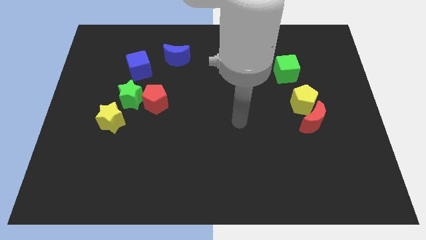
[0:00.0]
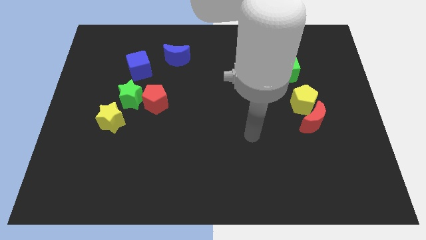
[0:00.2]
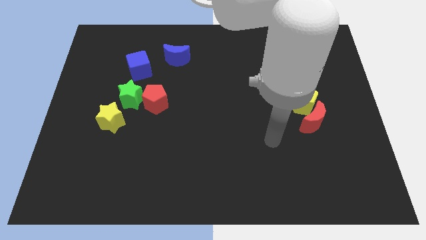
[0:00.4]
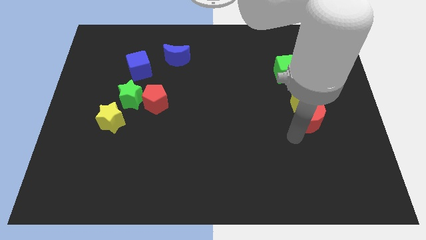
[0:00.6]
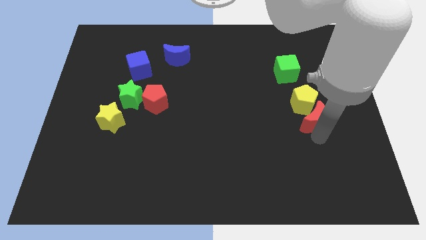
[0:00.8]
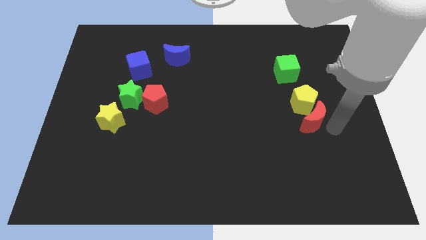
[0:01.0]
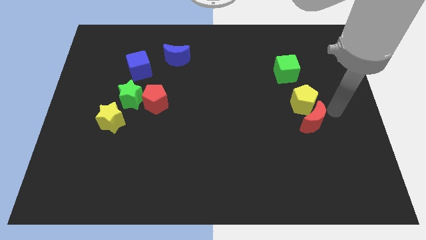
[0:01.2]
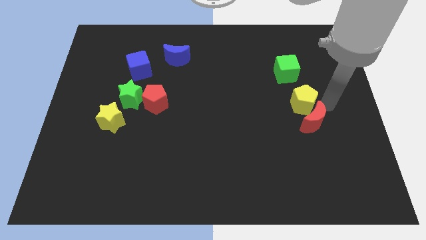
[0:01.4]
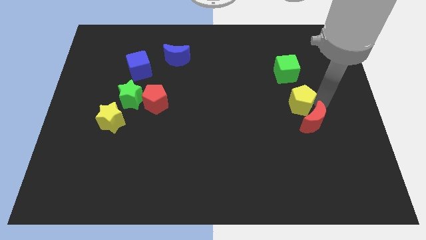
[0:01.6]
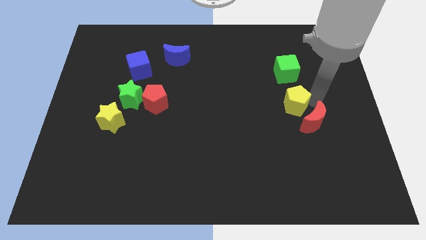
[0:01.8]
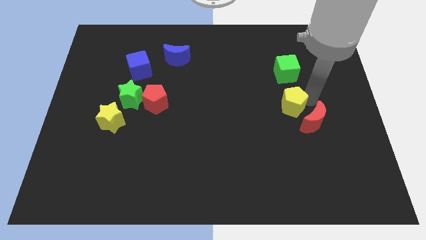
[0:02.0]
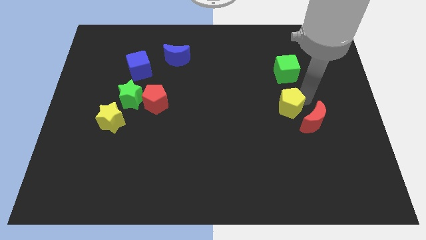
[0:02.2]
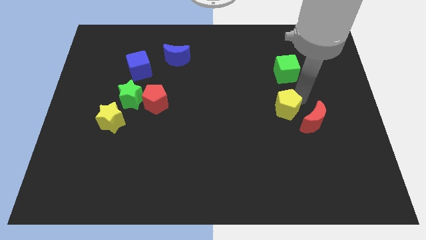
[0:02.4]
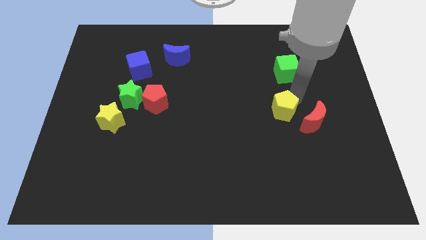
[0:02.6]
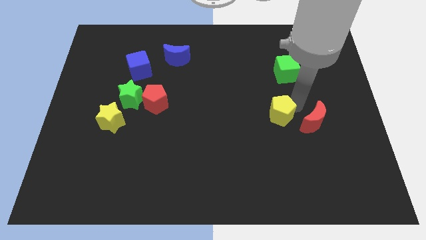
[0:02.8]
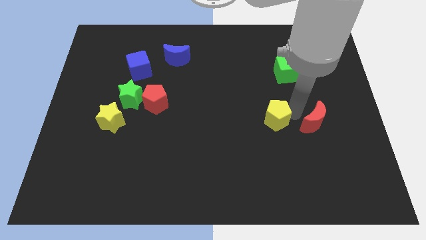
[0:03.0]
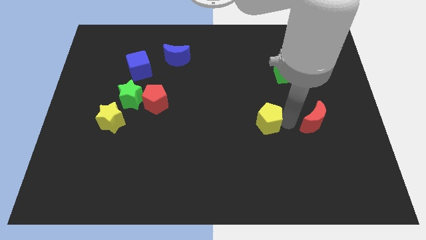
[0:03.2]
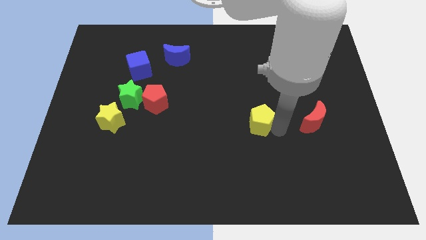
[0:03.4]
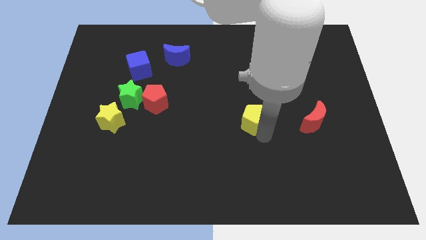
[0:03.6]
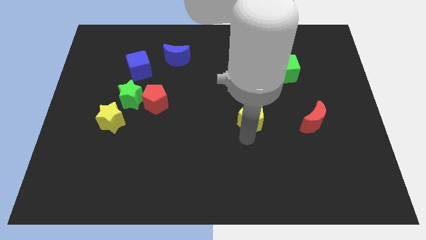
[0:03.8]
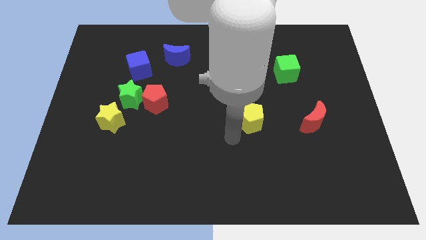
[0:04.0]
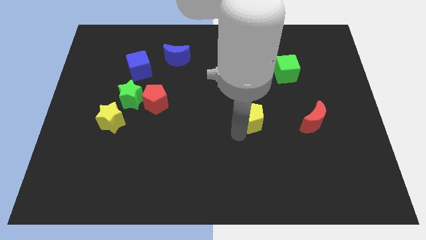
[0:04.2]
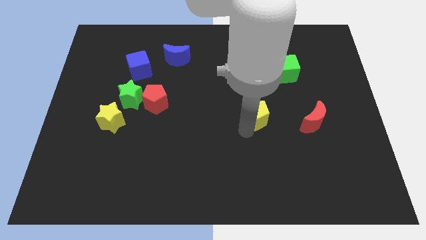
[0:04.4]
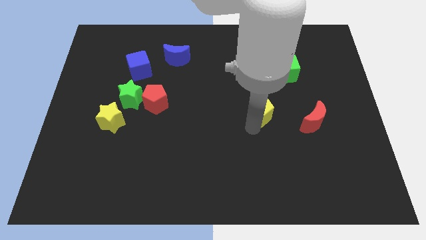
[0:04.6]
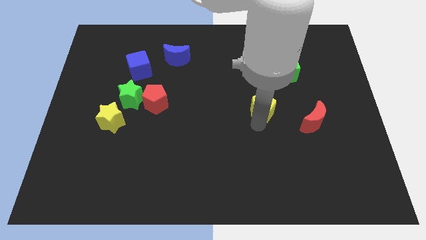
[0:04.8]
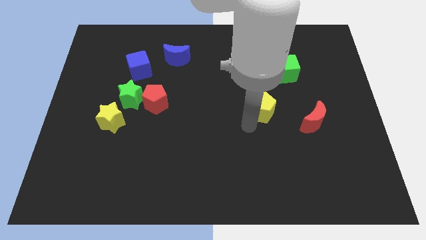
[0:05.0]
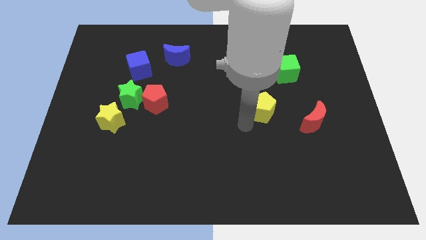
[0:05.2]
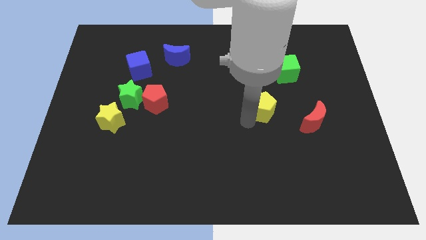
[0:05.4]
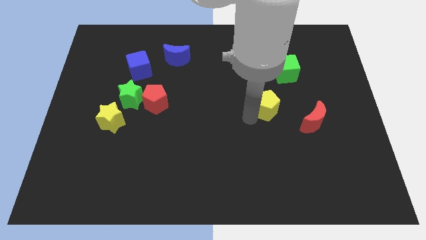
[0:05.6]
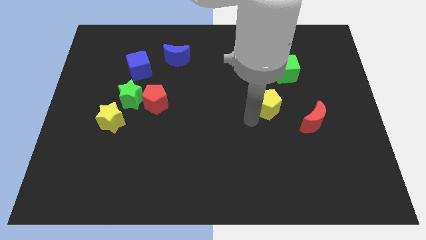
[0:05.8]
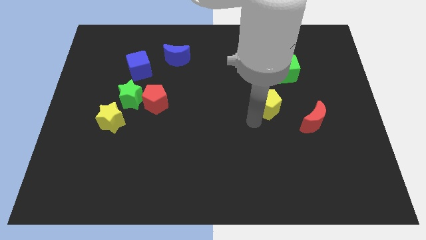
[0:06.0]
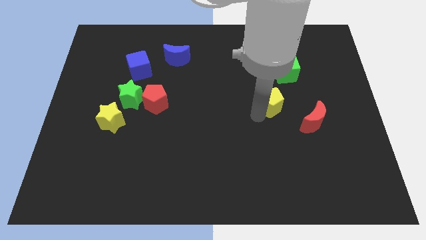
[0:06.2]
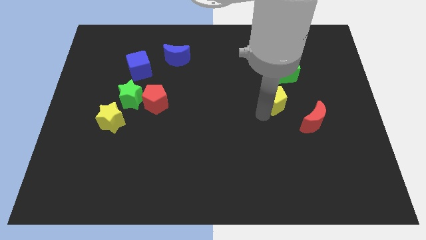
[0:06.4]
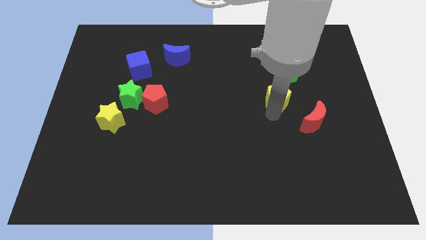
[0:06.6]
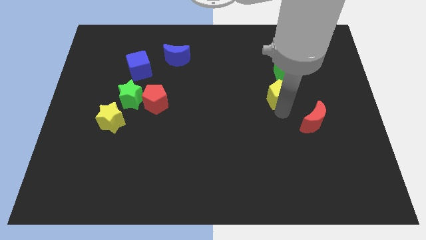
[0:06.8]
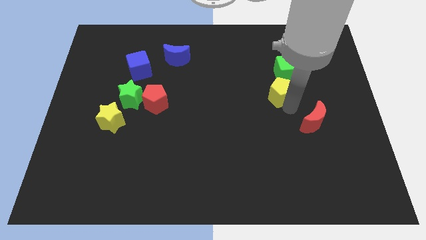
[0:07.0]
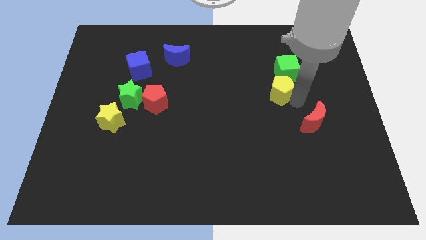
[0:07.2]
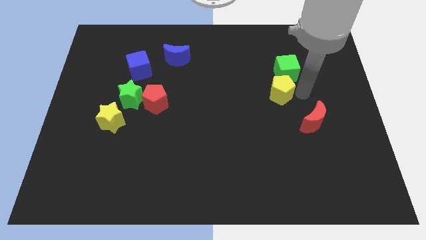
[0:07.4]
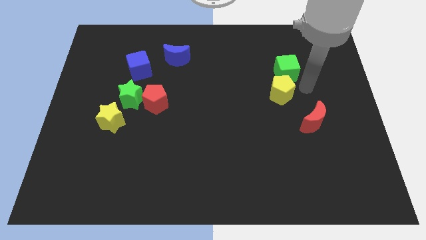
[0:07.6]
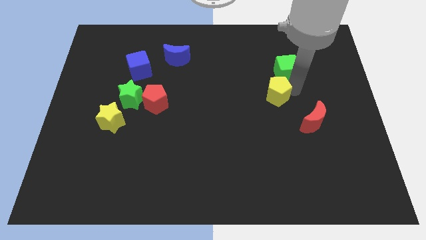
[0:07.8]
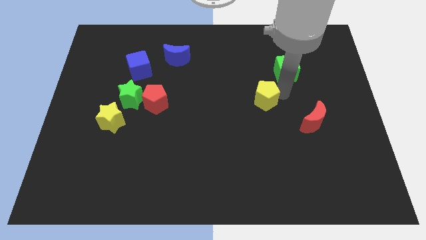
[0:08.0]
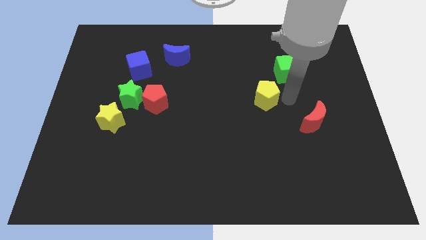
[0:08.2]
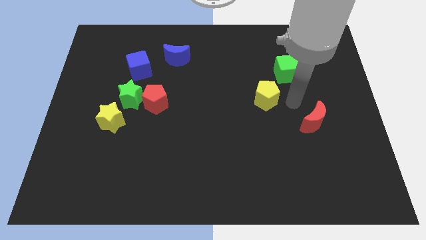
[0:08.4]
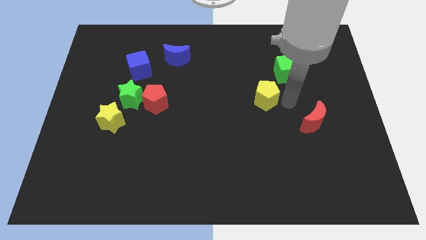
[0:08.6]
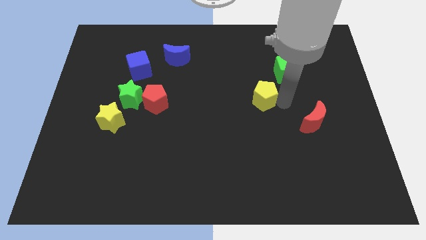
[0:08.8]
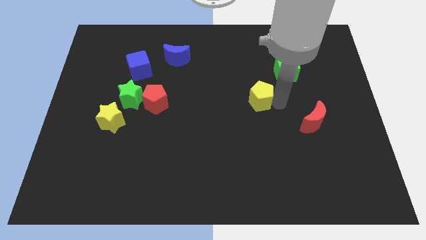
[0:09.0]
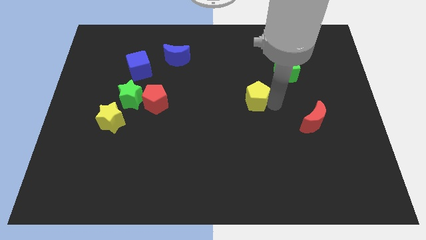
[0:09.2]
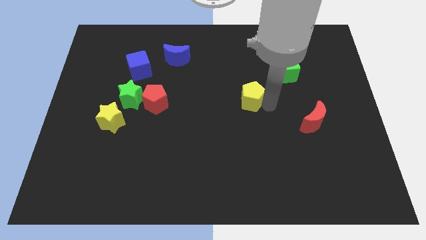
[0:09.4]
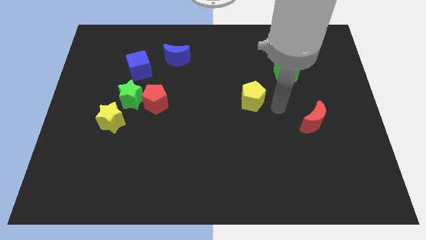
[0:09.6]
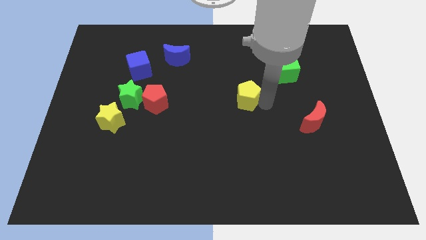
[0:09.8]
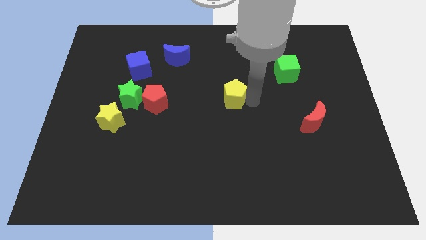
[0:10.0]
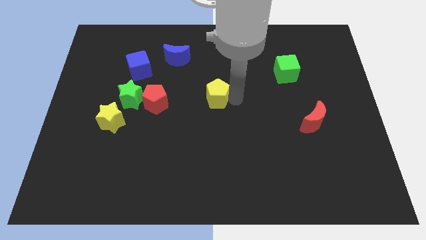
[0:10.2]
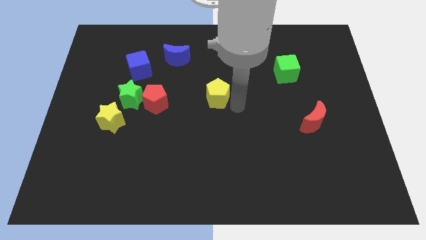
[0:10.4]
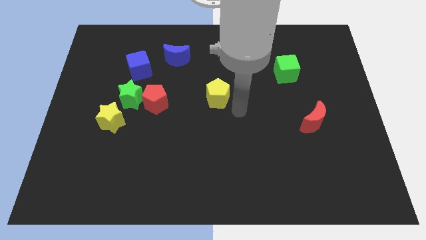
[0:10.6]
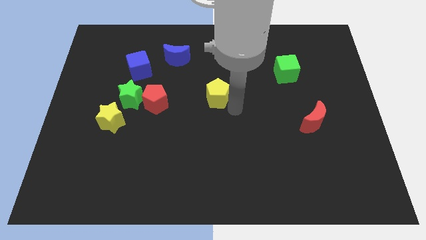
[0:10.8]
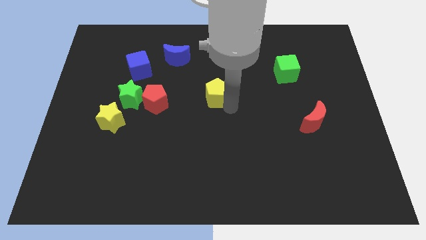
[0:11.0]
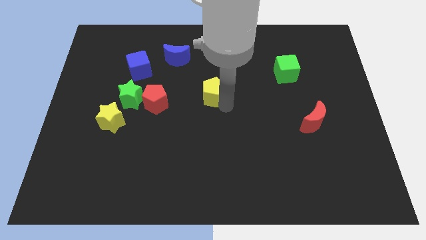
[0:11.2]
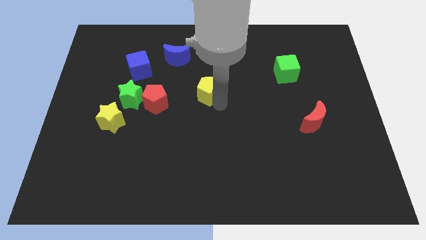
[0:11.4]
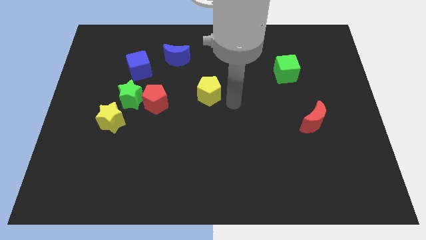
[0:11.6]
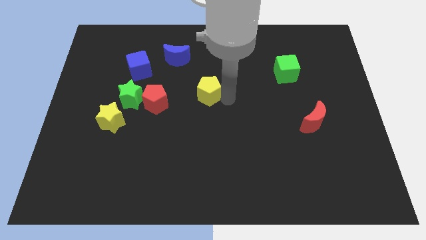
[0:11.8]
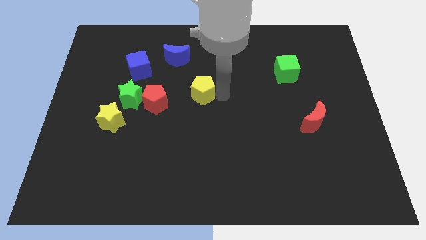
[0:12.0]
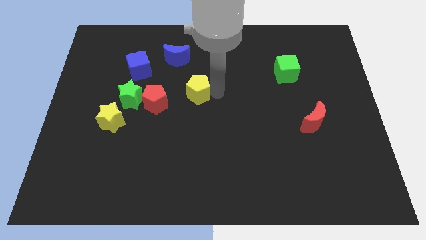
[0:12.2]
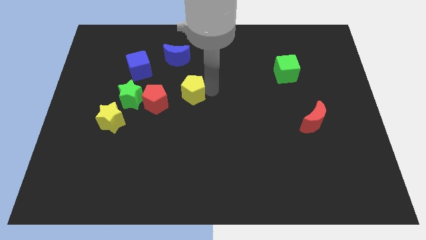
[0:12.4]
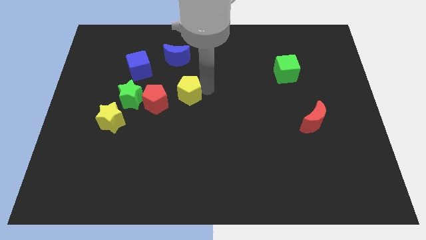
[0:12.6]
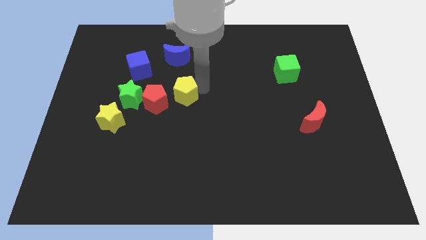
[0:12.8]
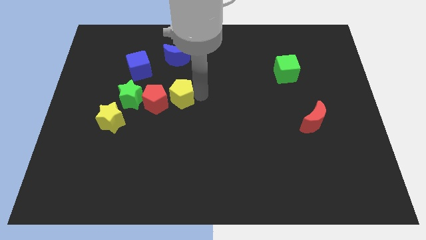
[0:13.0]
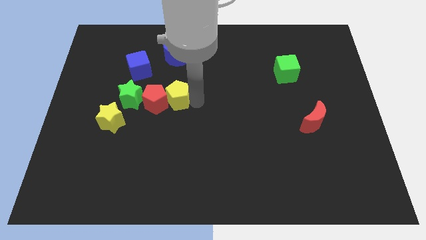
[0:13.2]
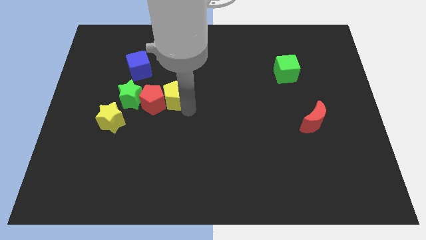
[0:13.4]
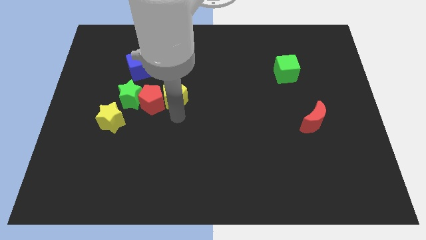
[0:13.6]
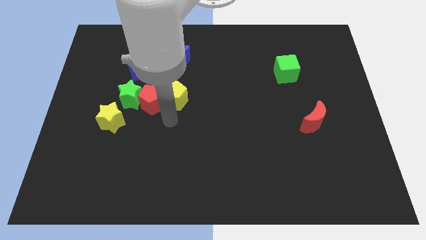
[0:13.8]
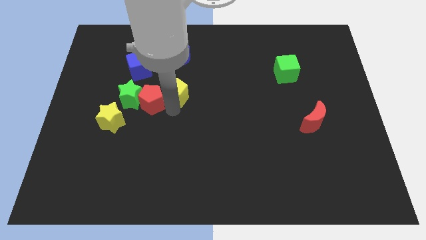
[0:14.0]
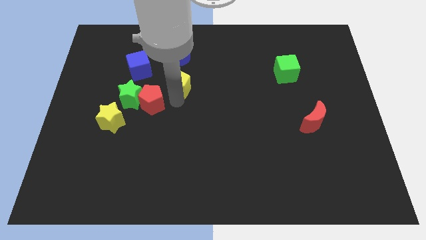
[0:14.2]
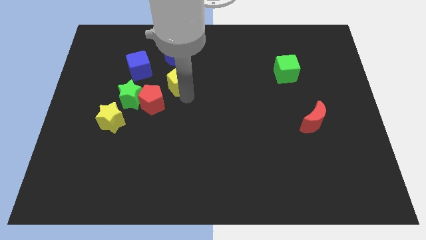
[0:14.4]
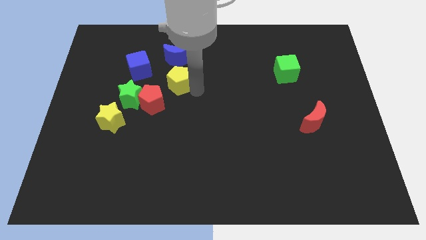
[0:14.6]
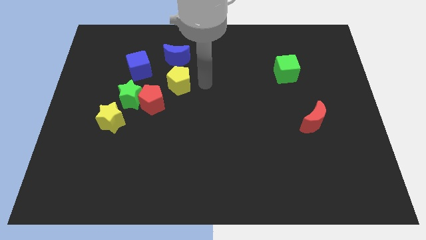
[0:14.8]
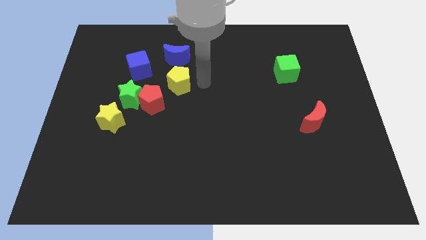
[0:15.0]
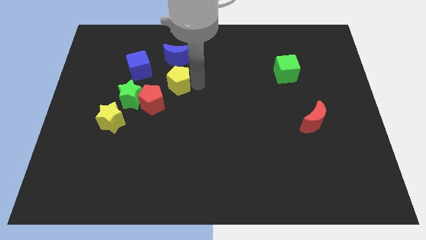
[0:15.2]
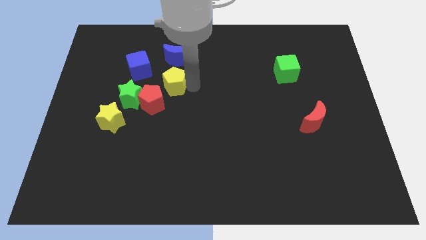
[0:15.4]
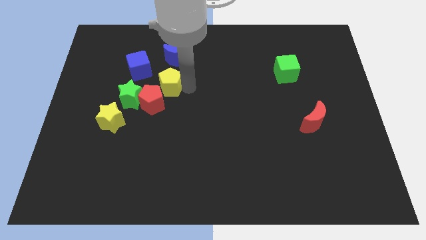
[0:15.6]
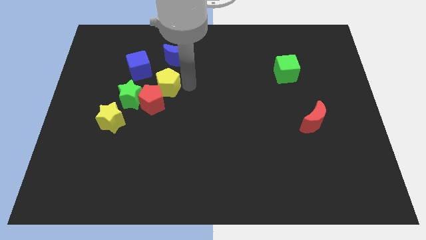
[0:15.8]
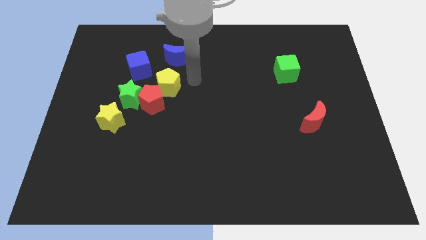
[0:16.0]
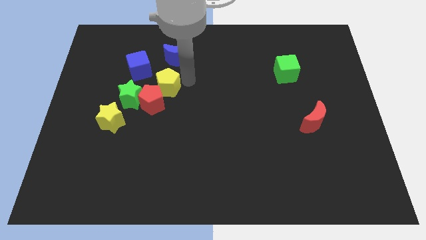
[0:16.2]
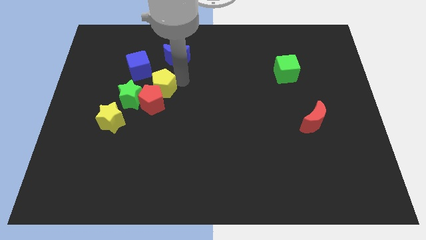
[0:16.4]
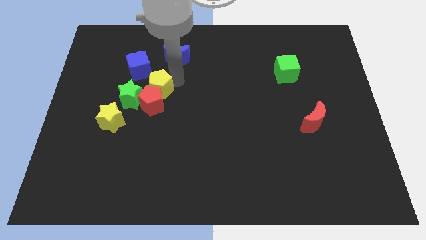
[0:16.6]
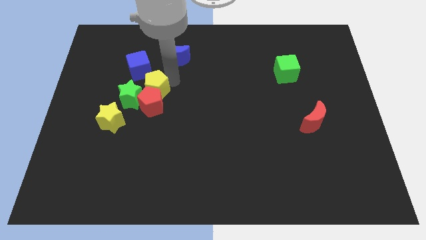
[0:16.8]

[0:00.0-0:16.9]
slide the yellow pentagon towards the green star
